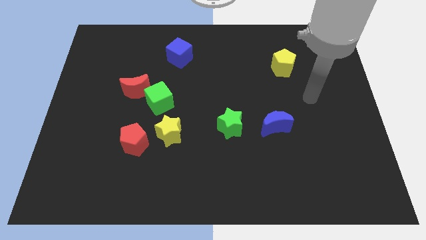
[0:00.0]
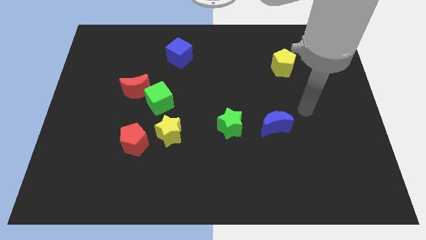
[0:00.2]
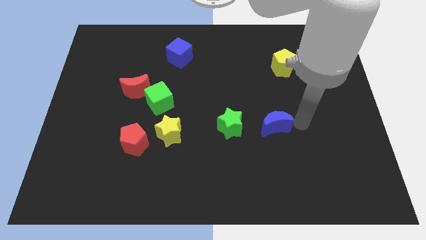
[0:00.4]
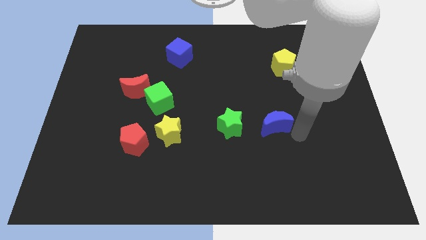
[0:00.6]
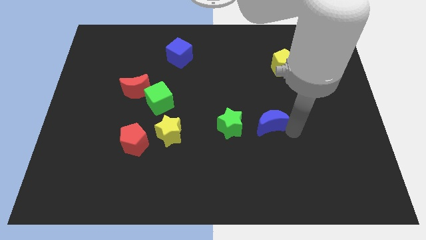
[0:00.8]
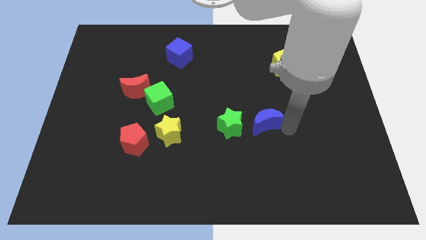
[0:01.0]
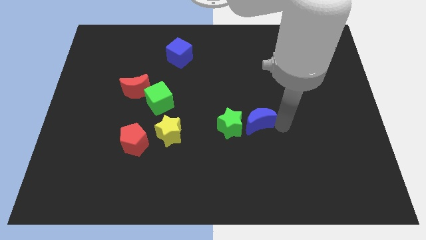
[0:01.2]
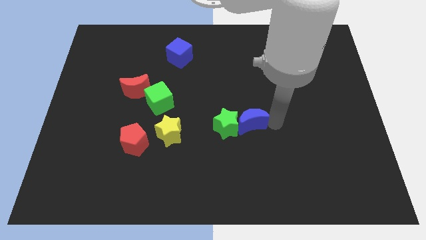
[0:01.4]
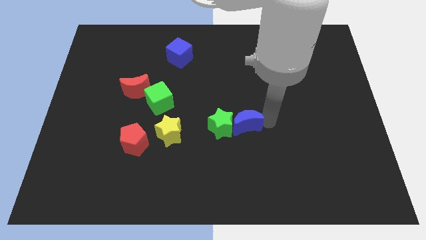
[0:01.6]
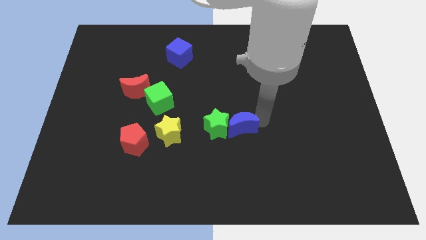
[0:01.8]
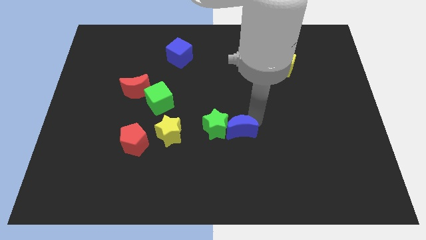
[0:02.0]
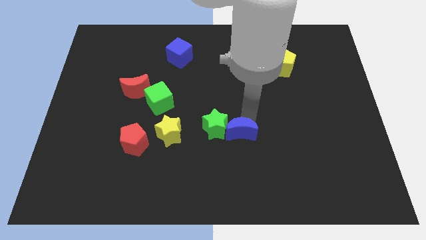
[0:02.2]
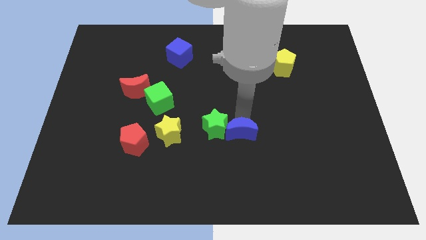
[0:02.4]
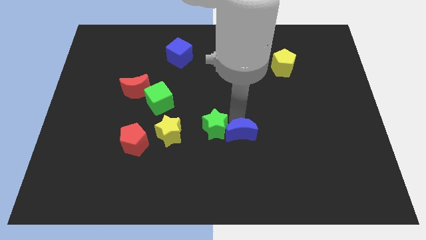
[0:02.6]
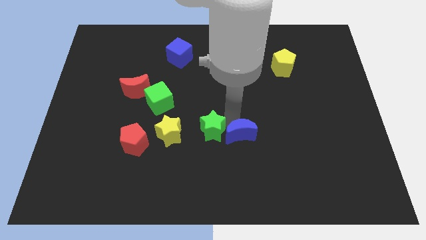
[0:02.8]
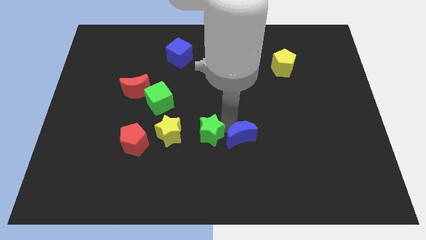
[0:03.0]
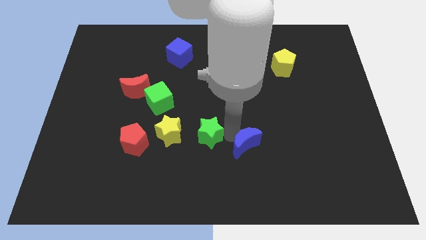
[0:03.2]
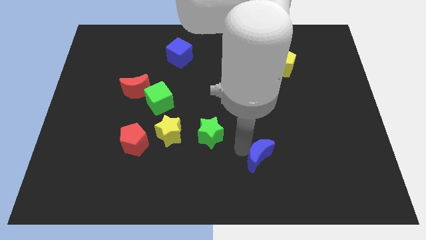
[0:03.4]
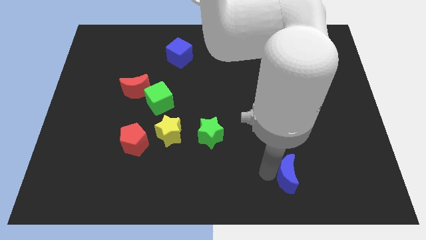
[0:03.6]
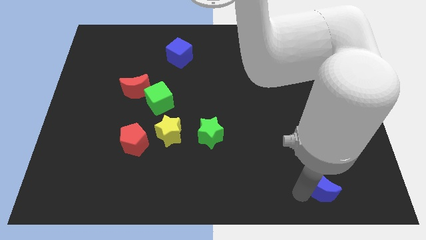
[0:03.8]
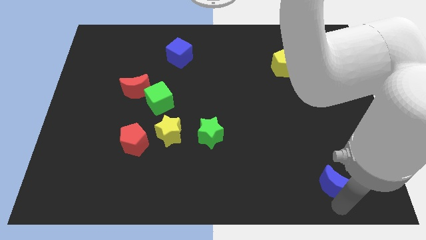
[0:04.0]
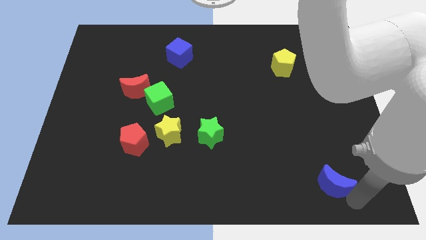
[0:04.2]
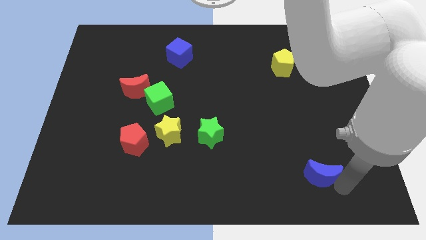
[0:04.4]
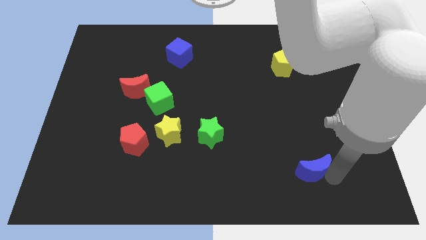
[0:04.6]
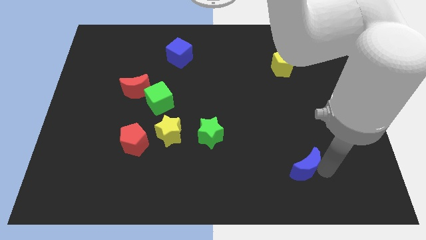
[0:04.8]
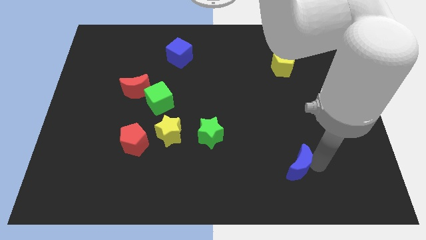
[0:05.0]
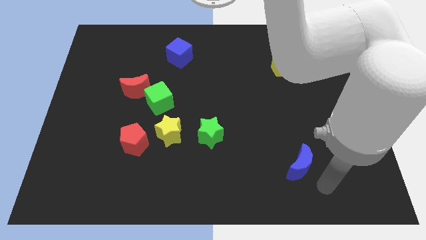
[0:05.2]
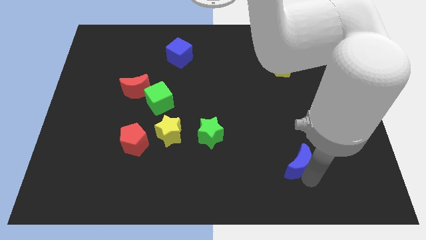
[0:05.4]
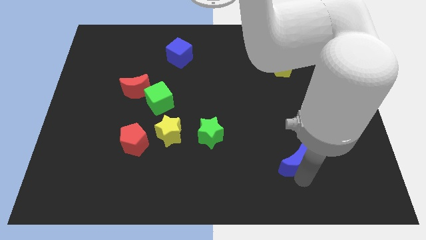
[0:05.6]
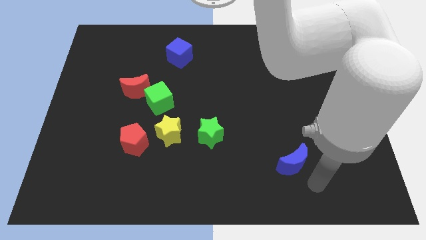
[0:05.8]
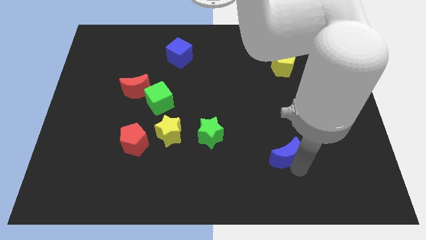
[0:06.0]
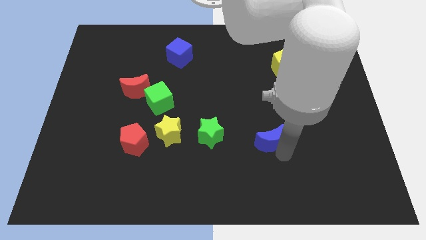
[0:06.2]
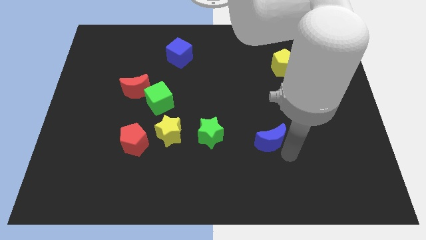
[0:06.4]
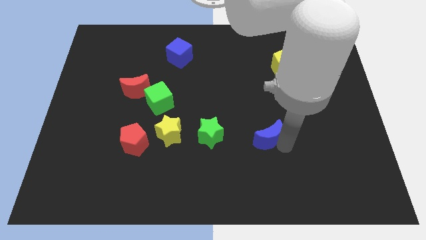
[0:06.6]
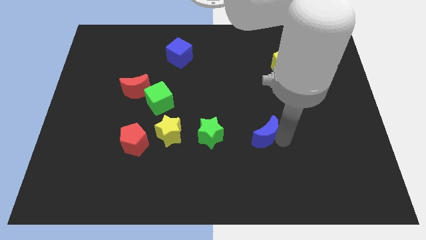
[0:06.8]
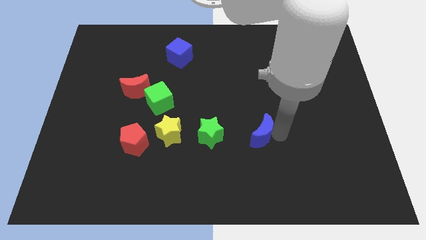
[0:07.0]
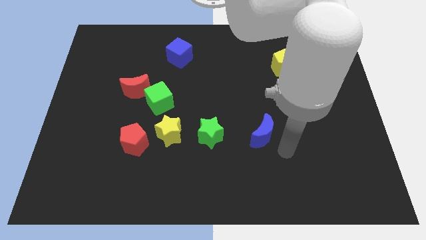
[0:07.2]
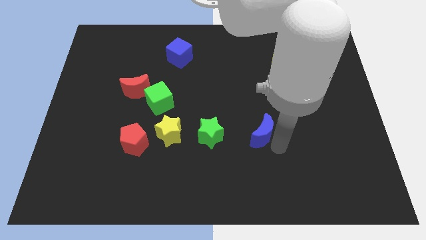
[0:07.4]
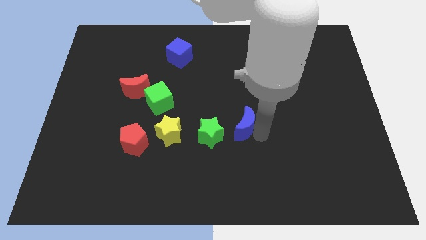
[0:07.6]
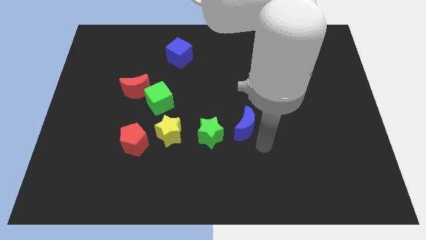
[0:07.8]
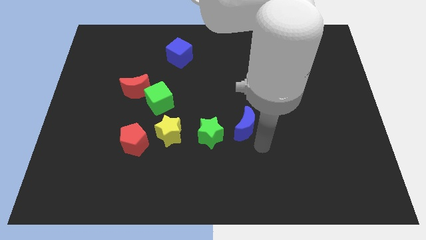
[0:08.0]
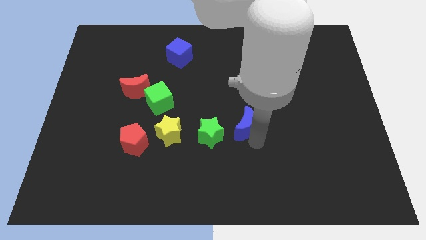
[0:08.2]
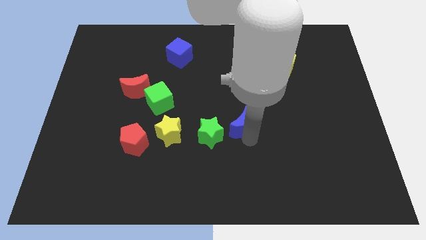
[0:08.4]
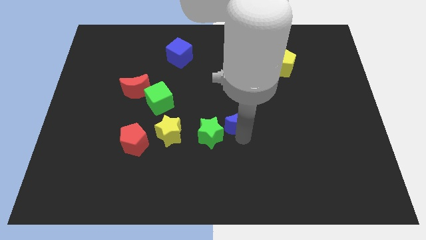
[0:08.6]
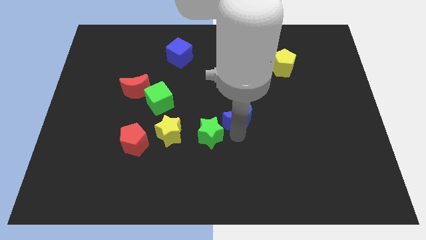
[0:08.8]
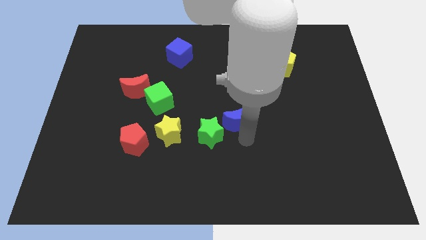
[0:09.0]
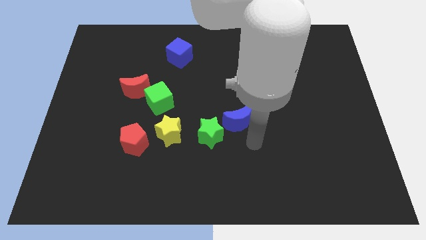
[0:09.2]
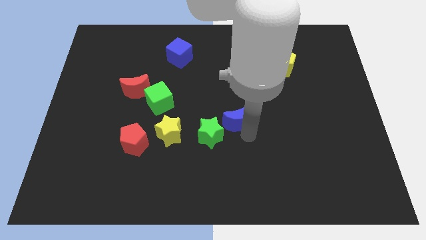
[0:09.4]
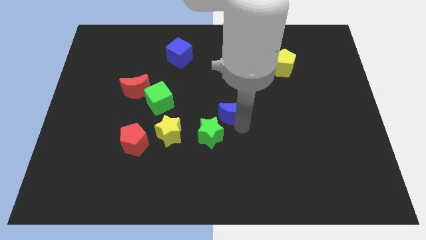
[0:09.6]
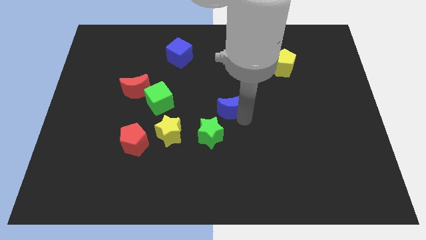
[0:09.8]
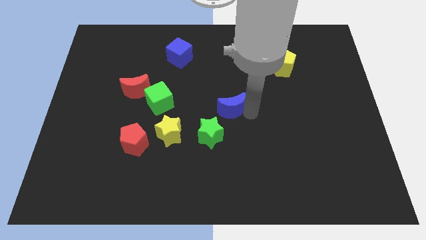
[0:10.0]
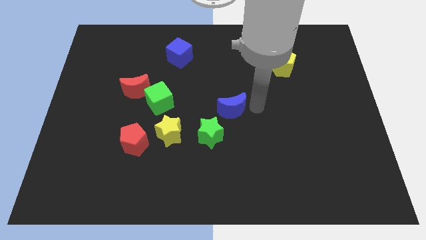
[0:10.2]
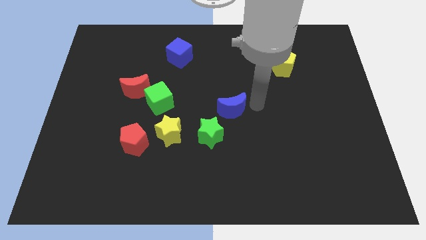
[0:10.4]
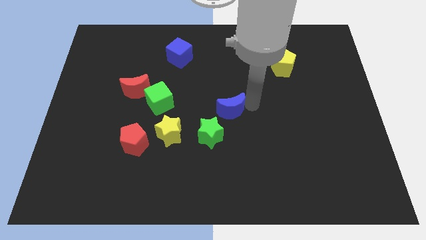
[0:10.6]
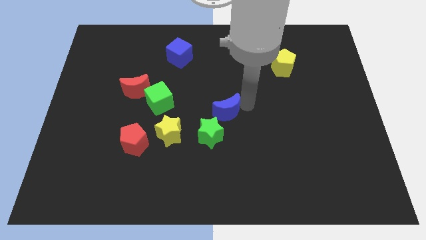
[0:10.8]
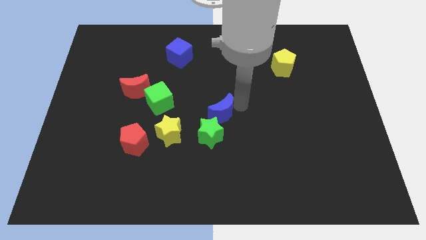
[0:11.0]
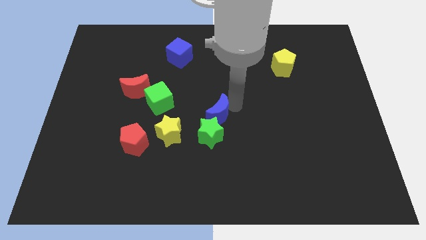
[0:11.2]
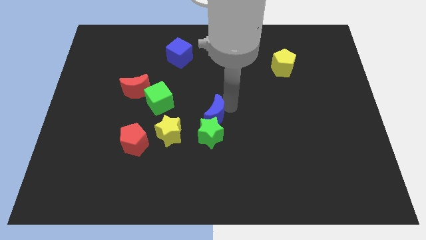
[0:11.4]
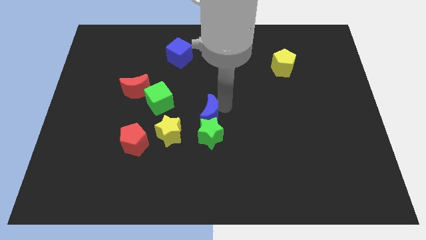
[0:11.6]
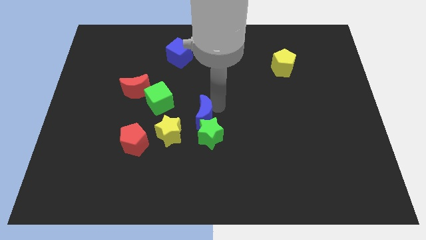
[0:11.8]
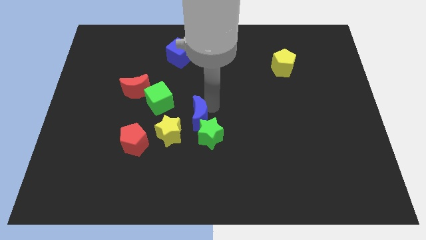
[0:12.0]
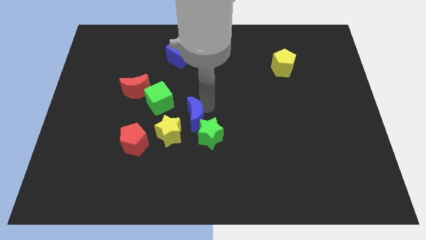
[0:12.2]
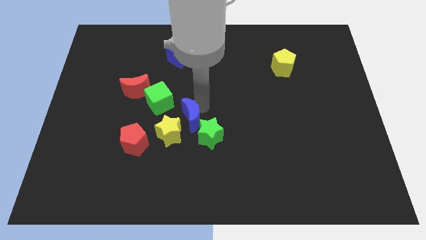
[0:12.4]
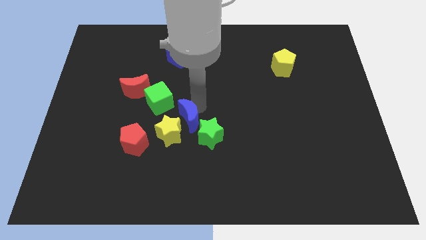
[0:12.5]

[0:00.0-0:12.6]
push the blue moon next to the yellow star
